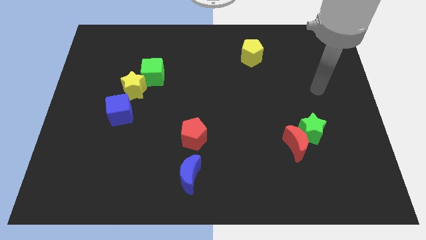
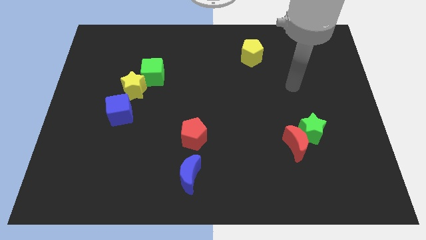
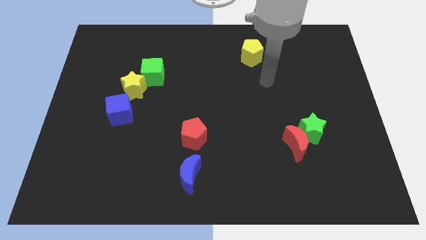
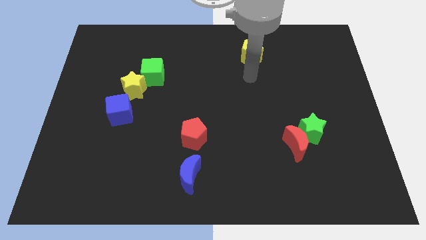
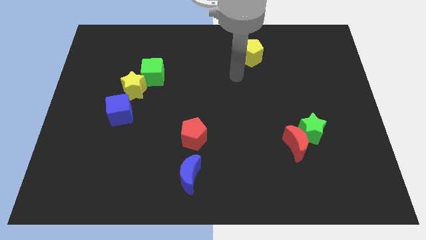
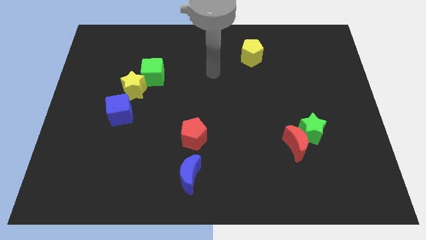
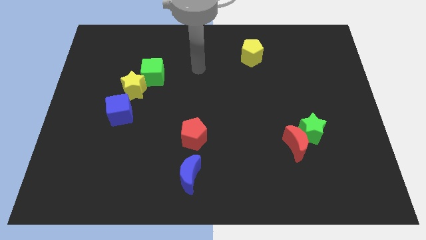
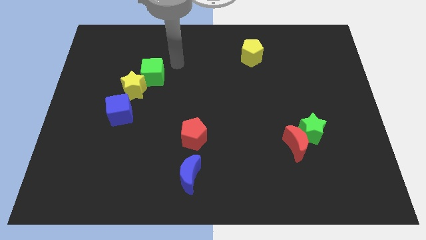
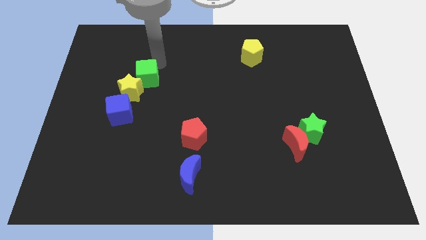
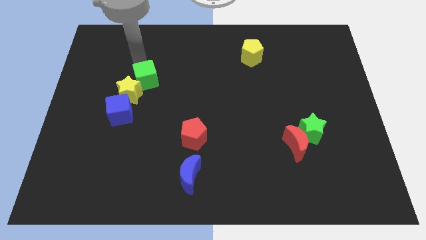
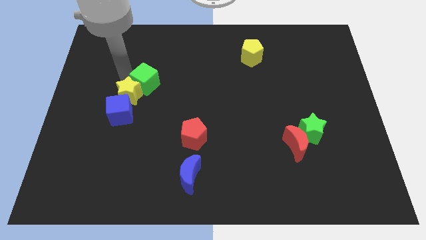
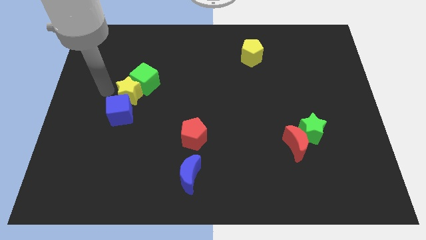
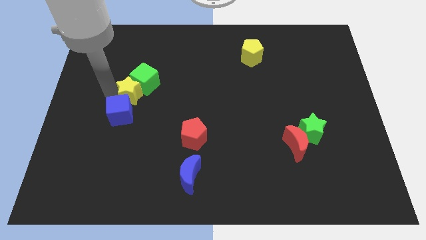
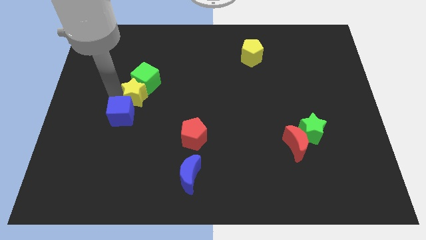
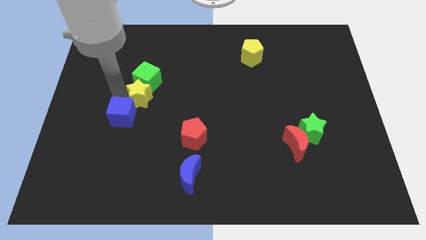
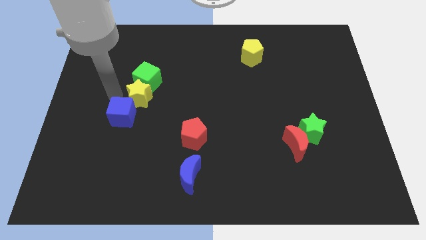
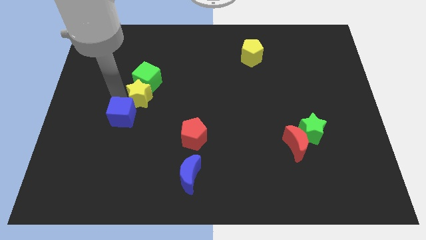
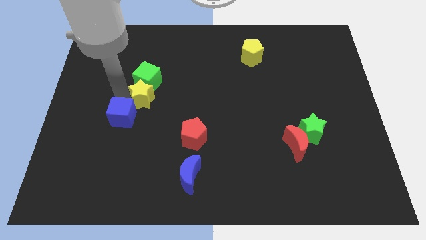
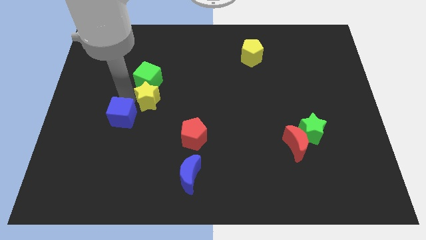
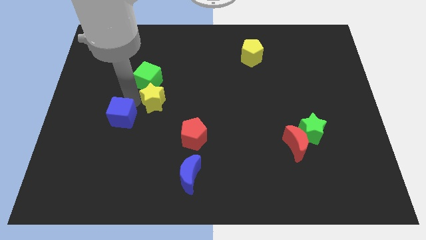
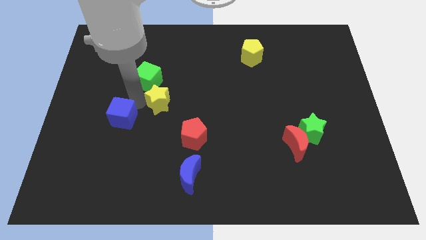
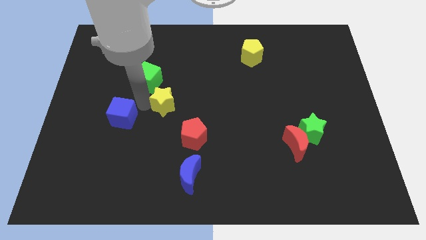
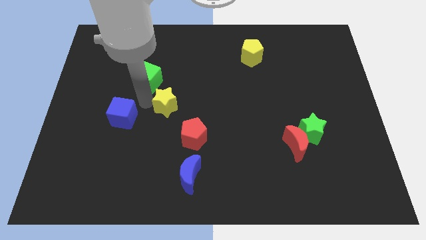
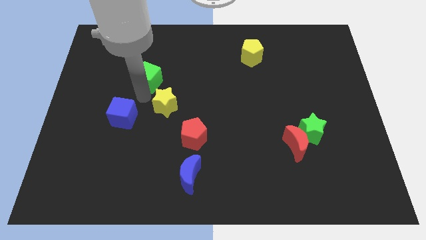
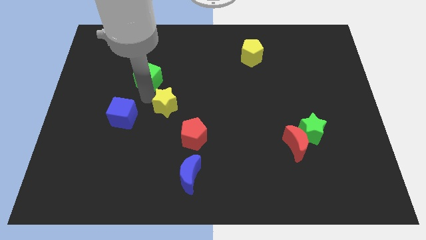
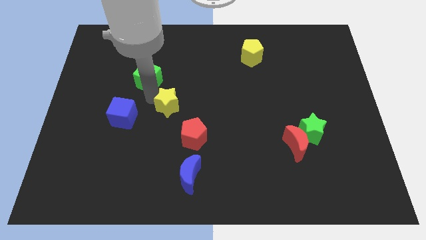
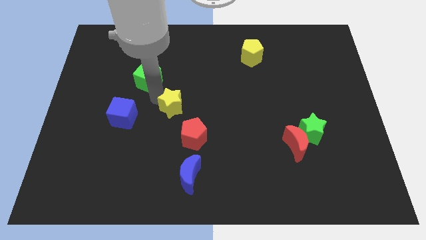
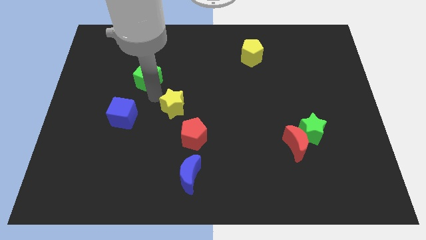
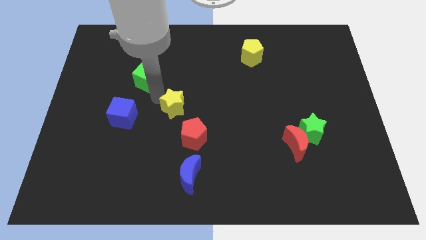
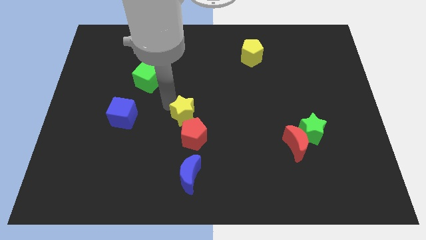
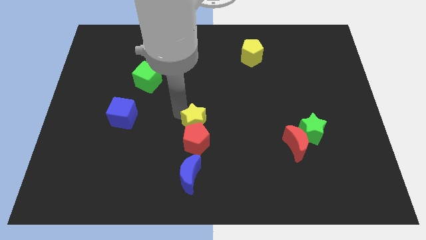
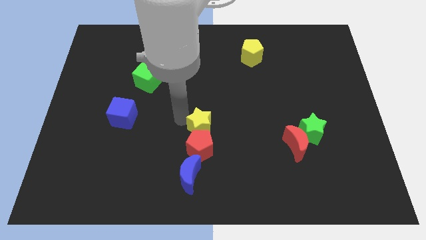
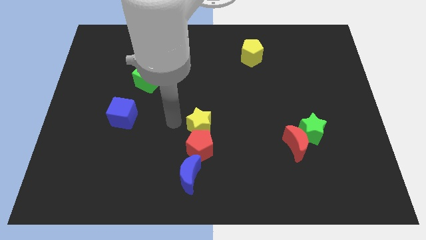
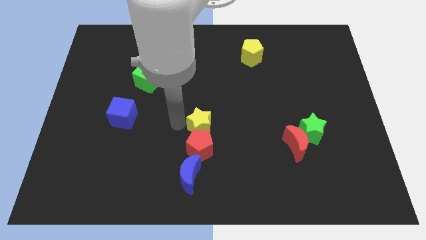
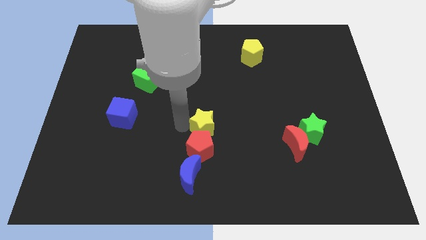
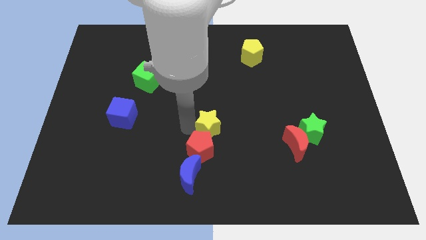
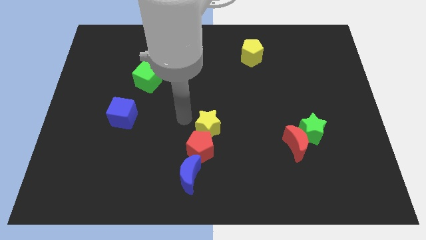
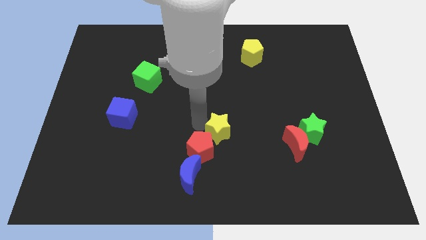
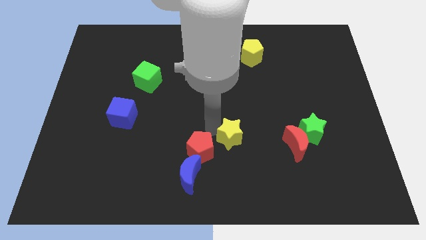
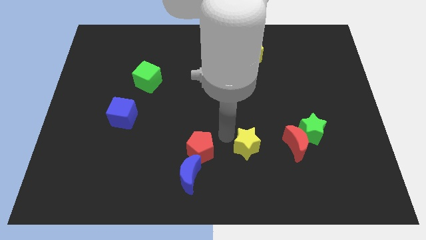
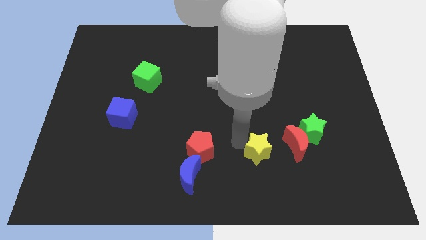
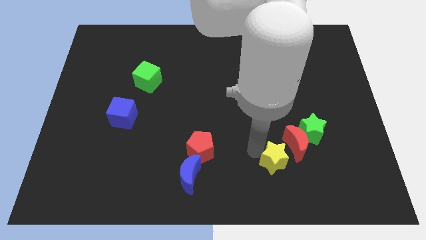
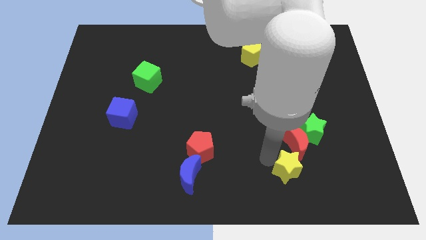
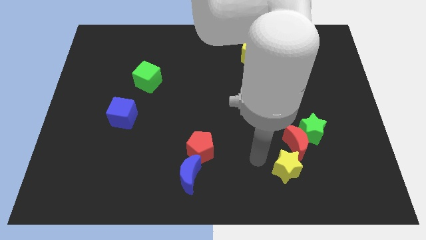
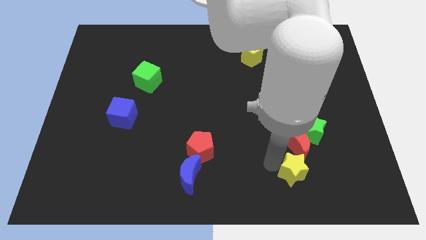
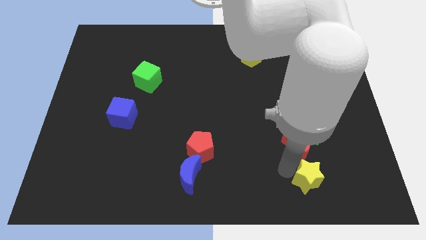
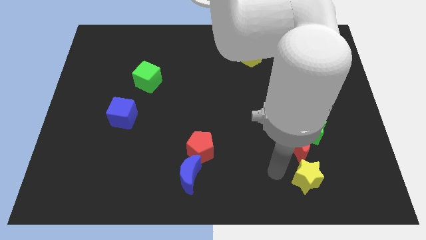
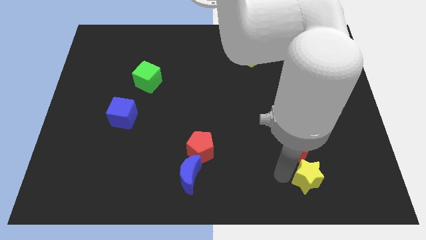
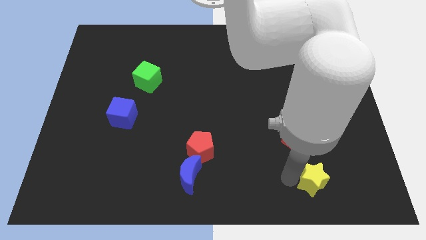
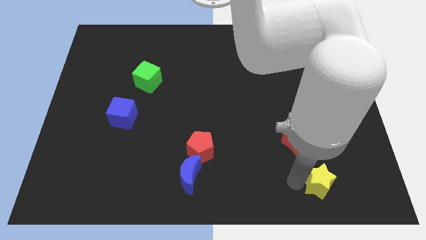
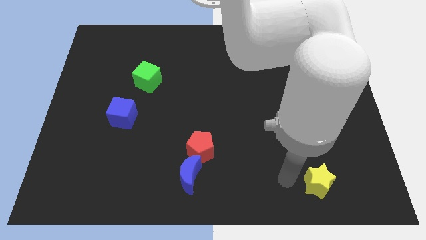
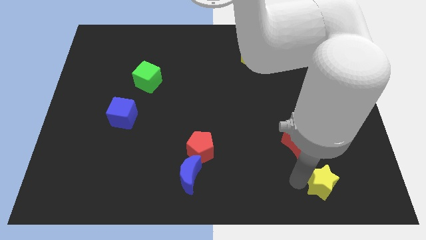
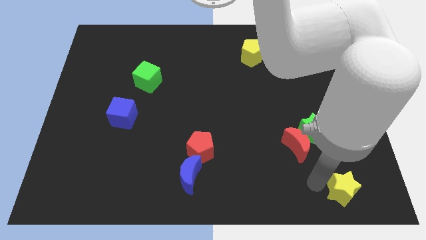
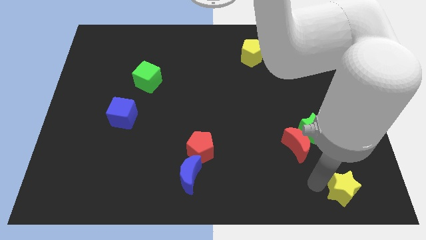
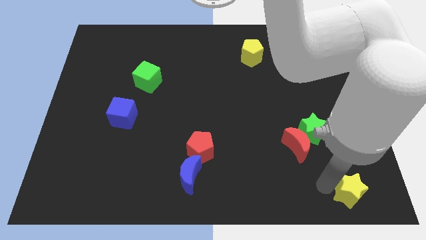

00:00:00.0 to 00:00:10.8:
slide the yellow star to the lower right corner

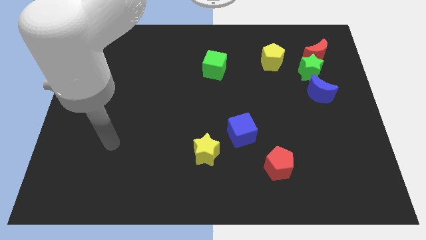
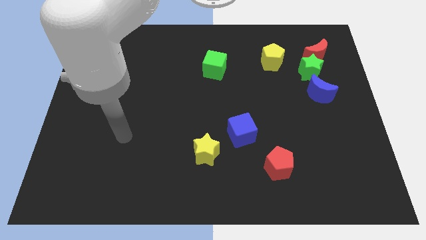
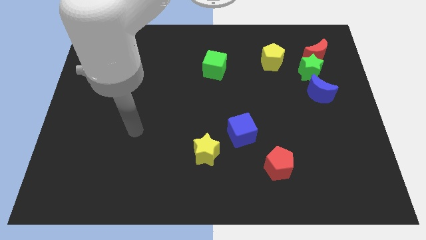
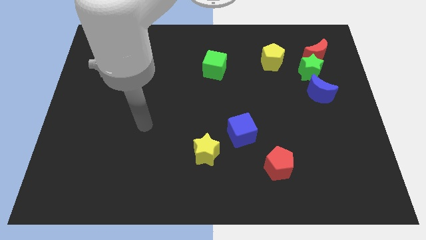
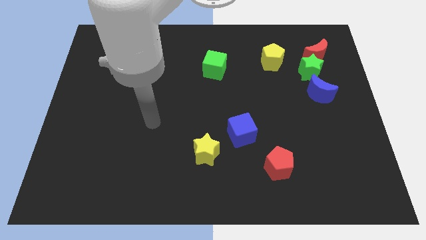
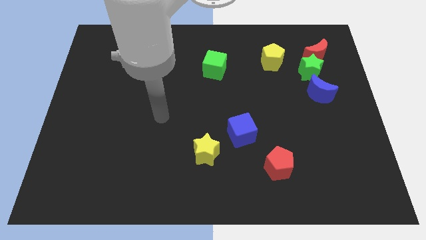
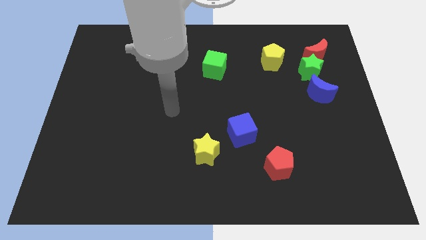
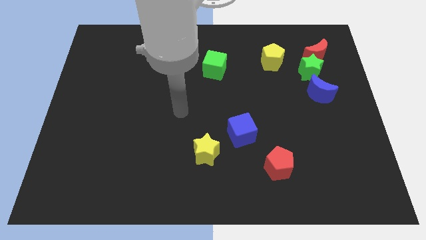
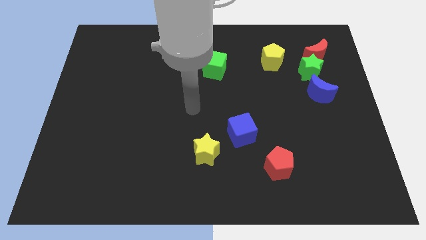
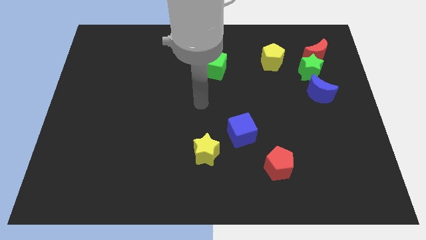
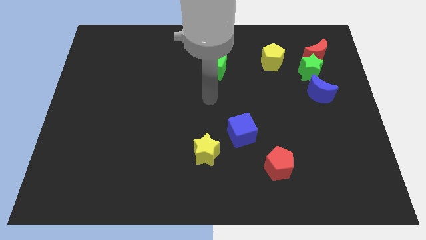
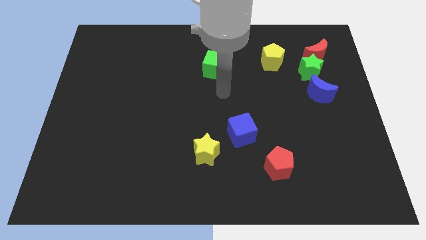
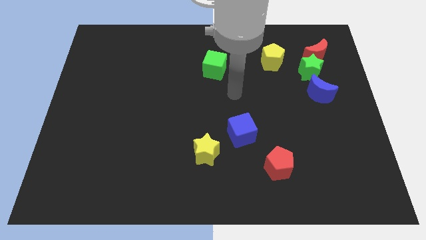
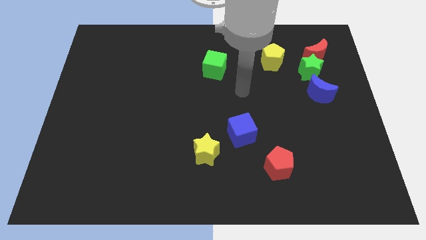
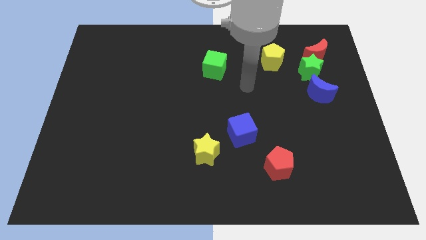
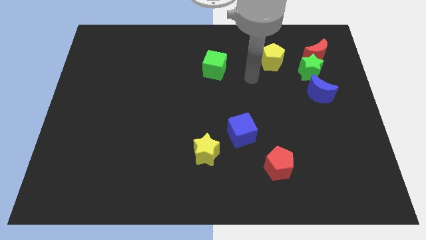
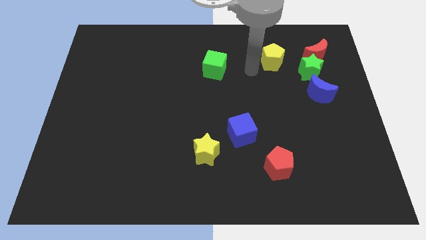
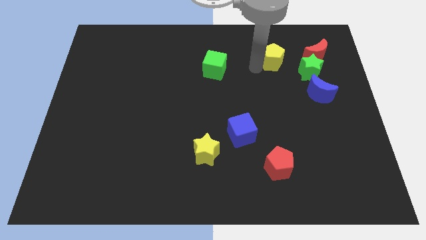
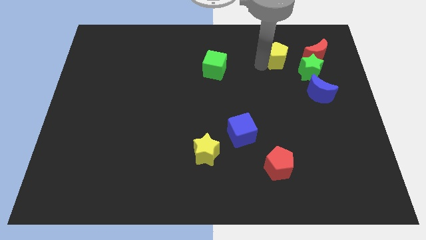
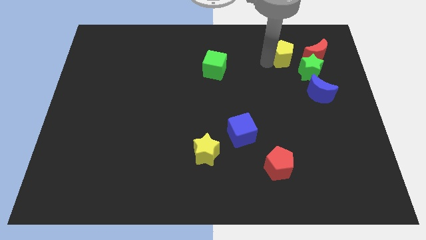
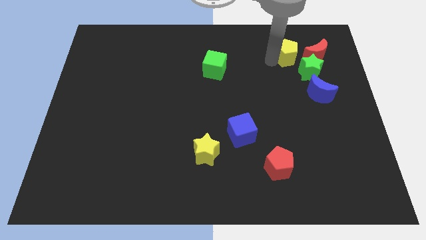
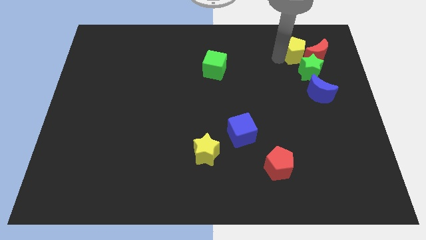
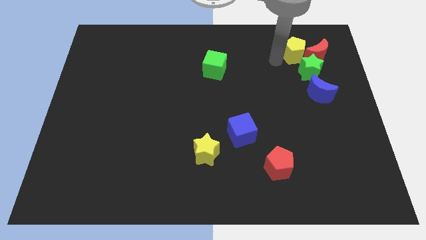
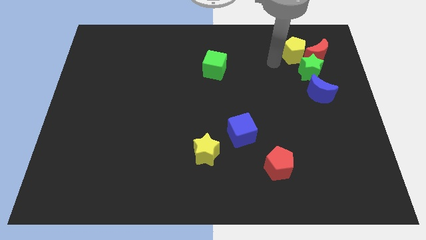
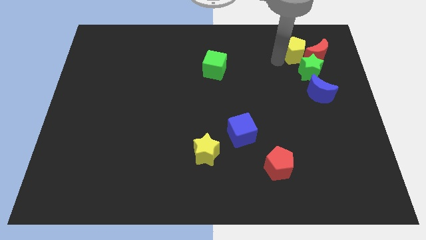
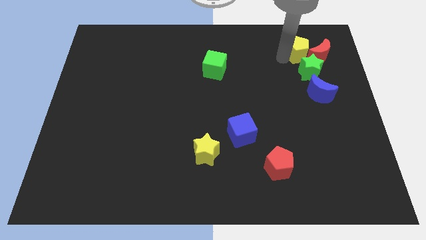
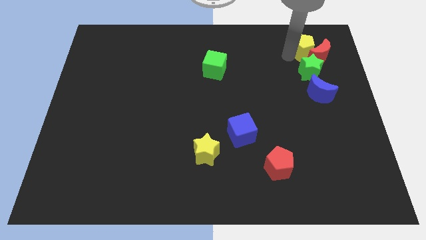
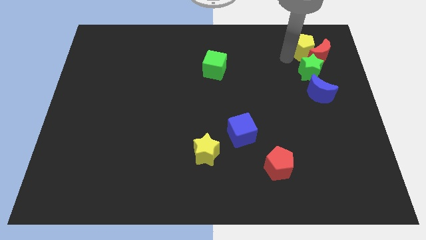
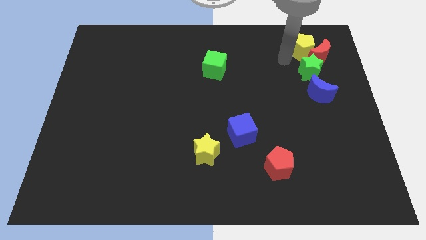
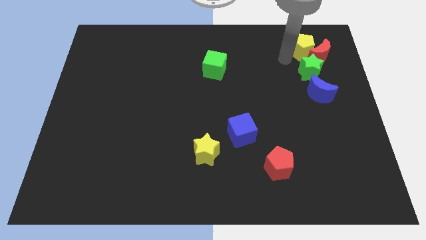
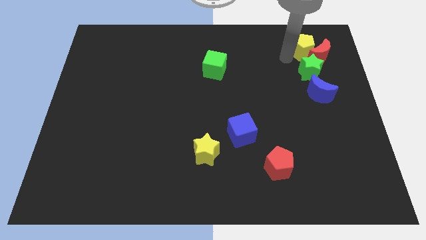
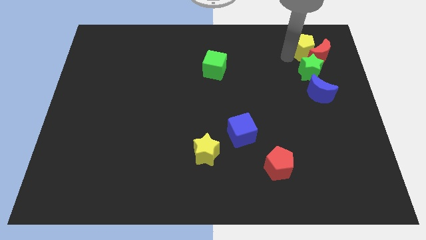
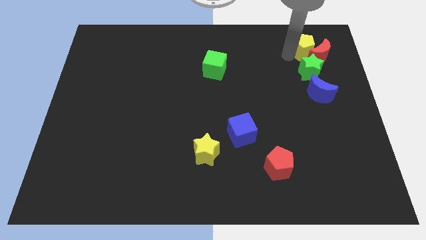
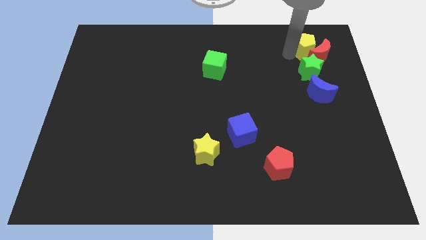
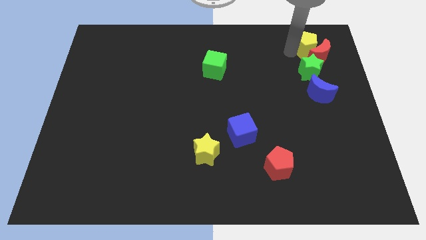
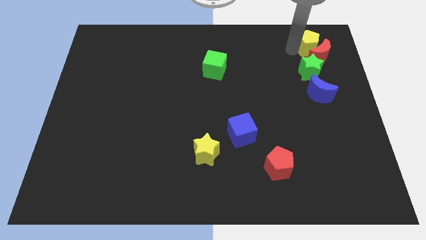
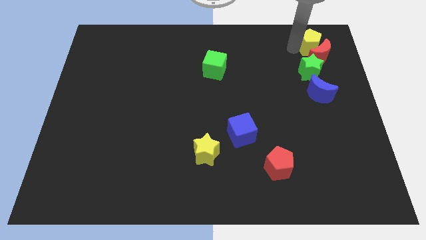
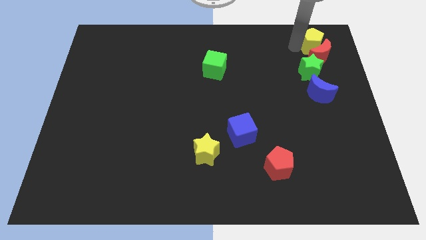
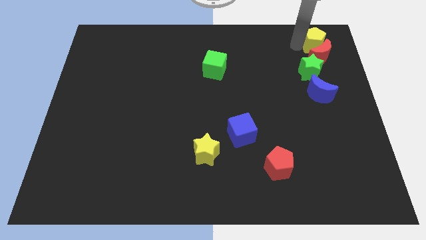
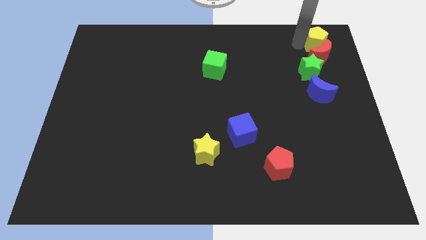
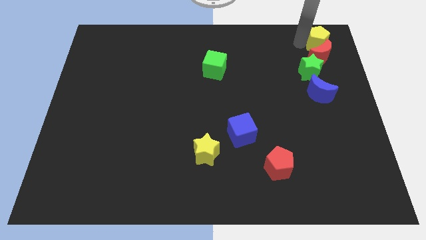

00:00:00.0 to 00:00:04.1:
move the yellow pentagon to the upper right corner
